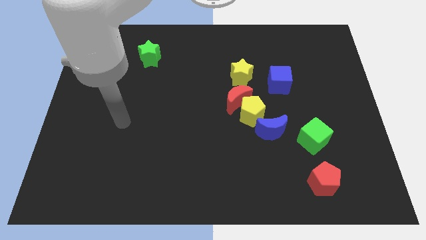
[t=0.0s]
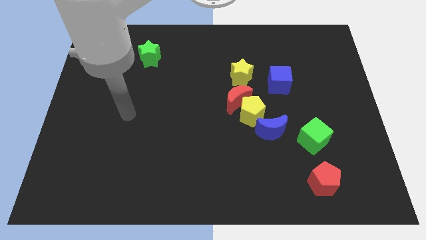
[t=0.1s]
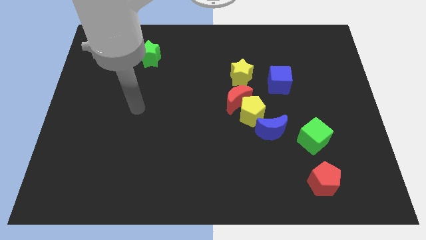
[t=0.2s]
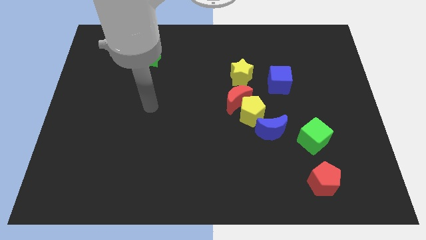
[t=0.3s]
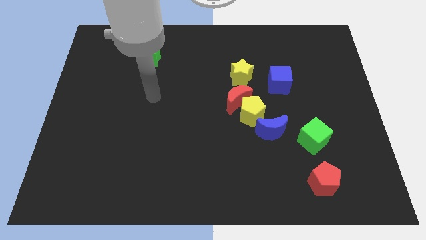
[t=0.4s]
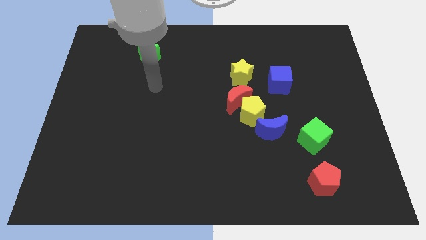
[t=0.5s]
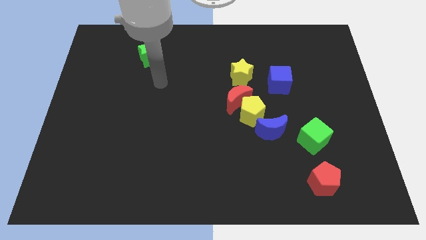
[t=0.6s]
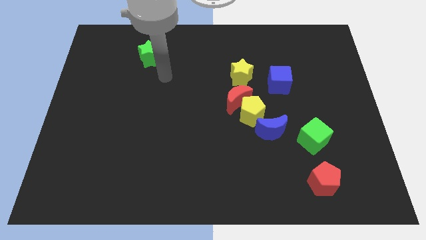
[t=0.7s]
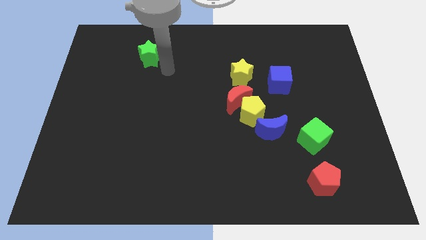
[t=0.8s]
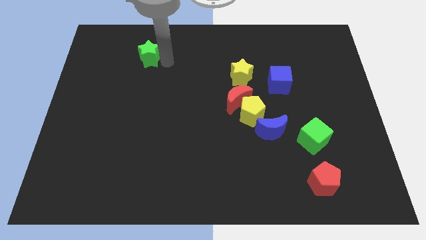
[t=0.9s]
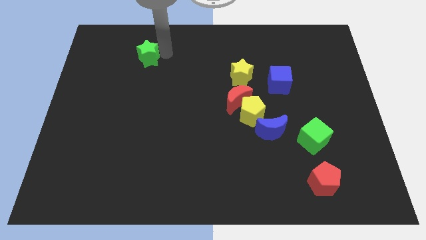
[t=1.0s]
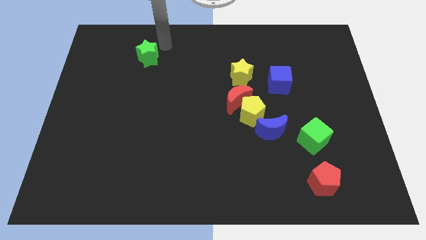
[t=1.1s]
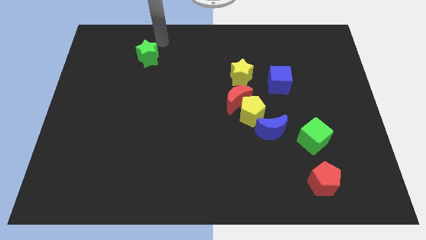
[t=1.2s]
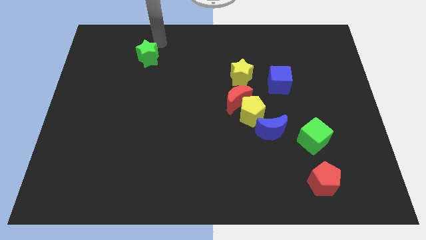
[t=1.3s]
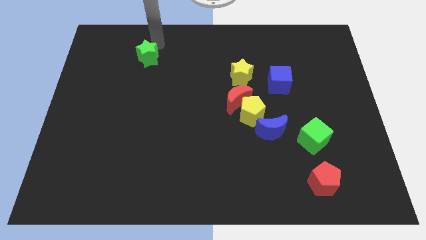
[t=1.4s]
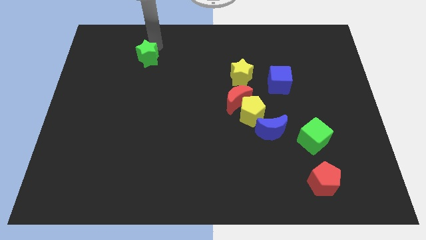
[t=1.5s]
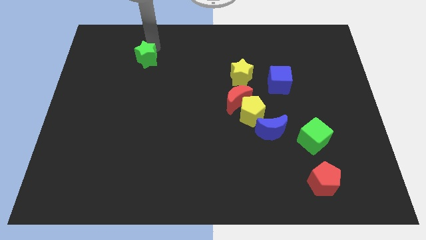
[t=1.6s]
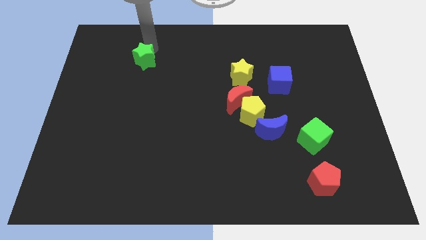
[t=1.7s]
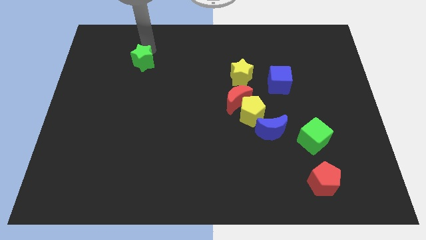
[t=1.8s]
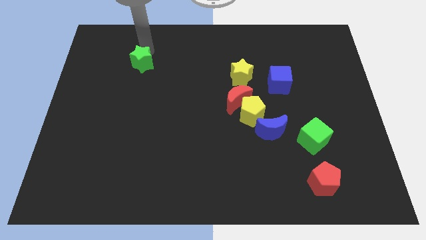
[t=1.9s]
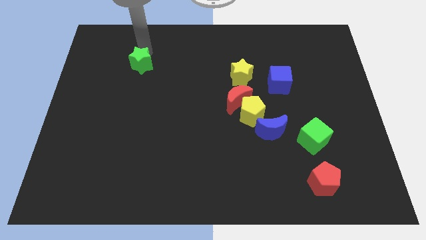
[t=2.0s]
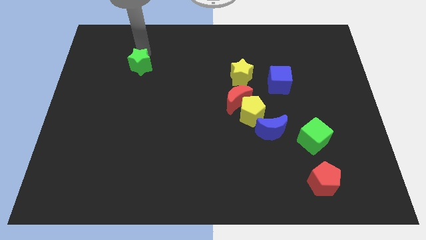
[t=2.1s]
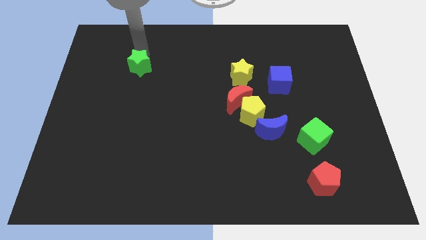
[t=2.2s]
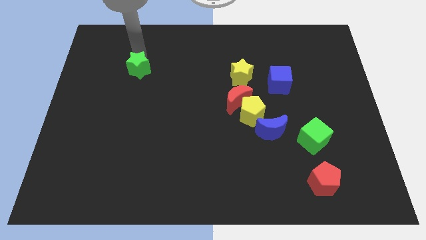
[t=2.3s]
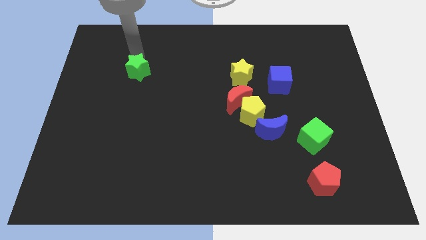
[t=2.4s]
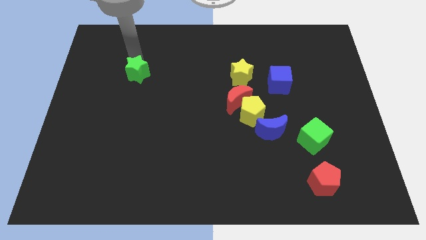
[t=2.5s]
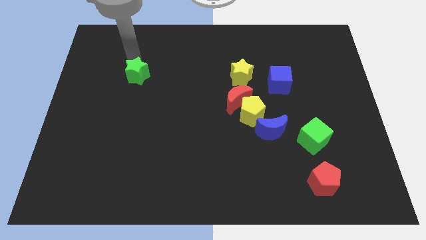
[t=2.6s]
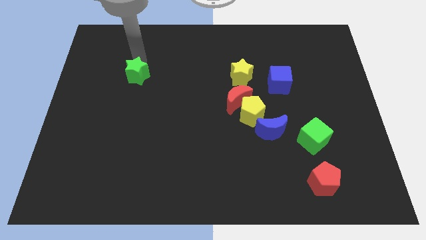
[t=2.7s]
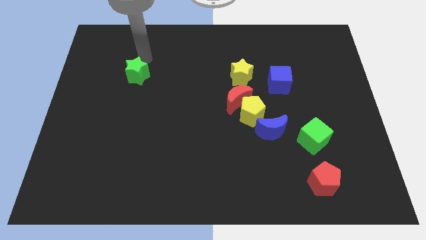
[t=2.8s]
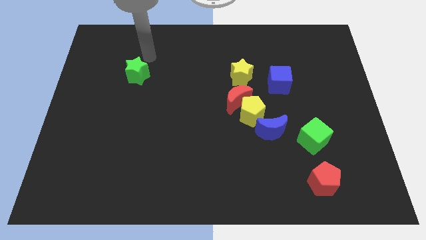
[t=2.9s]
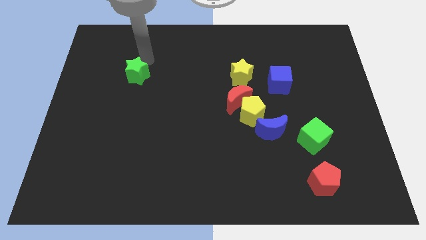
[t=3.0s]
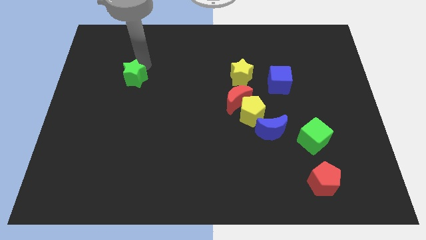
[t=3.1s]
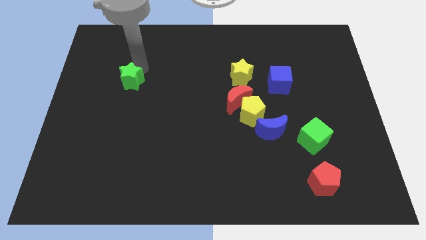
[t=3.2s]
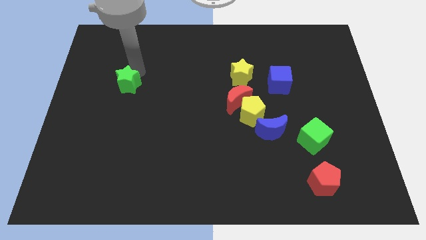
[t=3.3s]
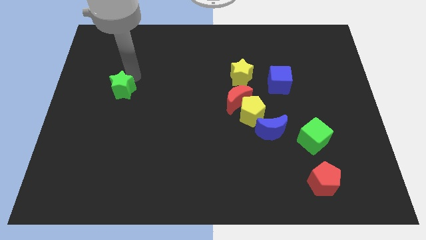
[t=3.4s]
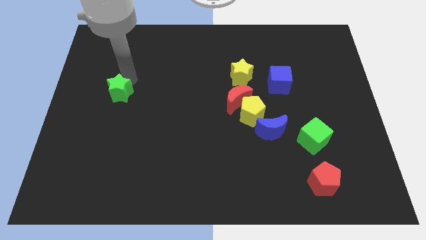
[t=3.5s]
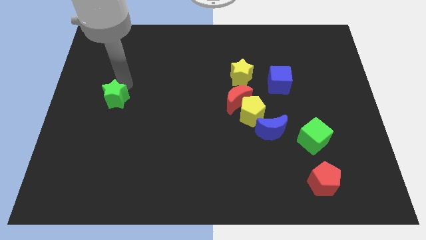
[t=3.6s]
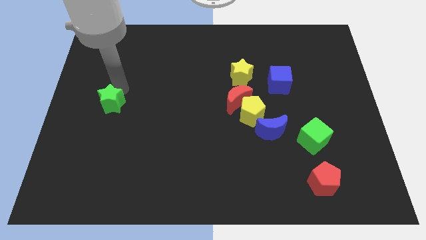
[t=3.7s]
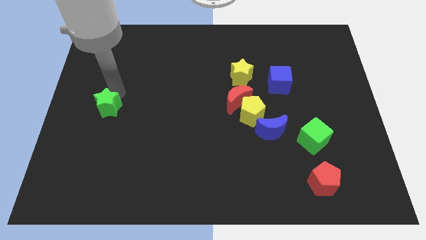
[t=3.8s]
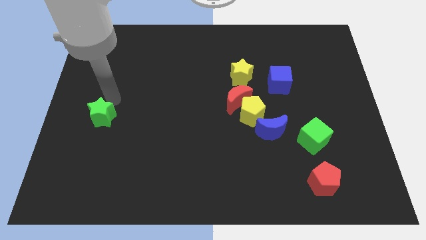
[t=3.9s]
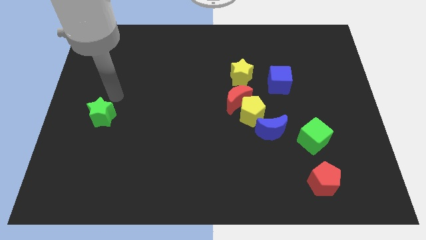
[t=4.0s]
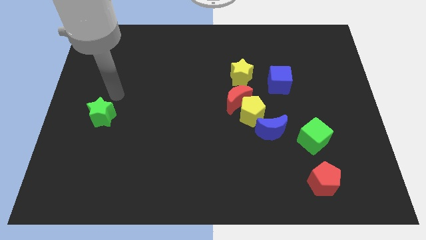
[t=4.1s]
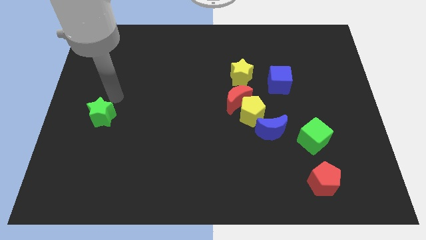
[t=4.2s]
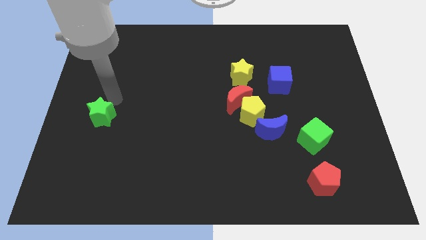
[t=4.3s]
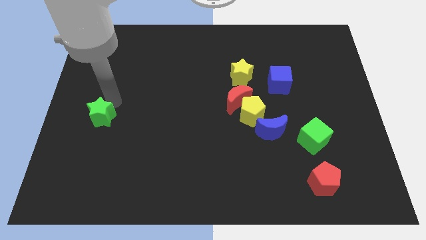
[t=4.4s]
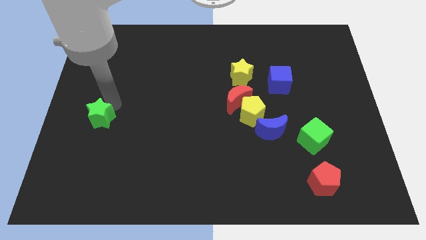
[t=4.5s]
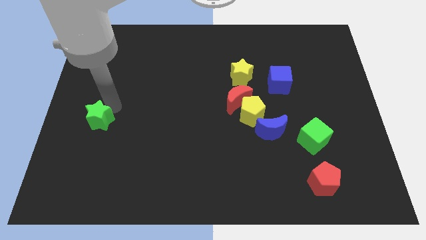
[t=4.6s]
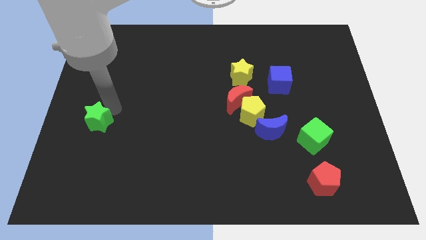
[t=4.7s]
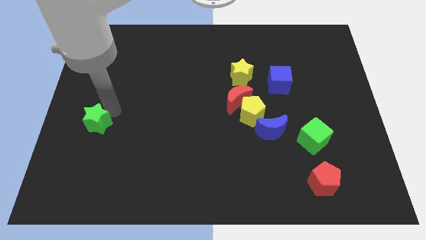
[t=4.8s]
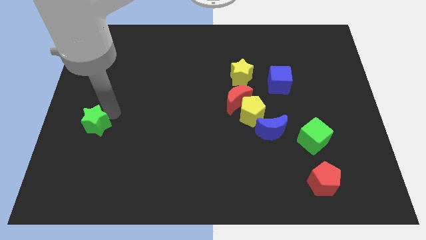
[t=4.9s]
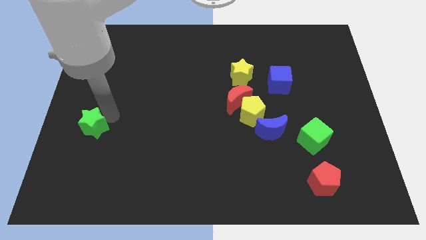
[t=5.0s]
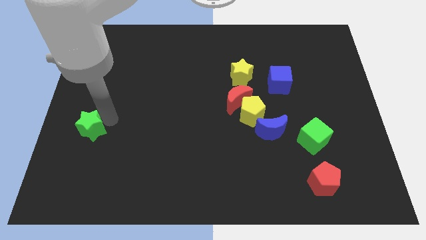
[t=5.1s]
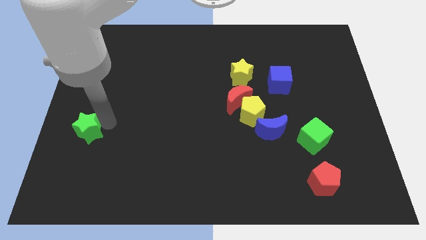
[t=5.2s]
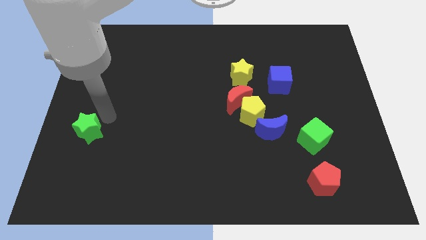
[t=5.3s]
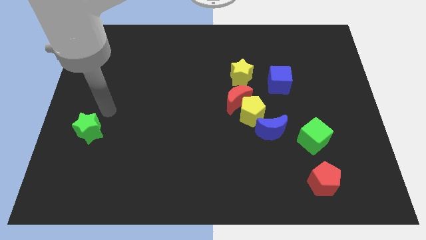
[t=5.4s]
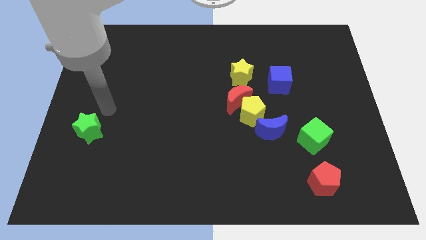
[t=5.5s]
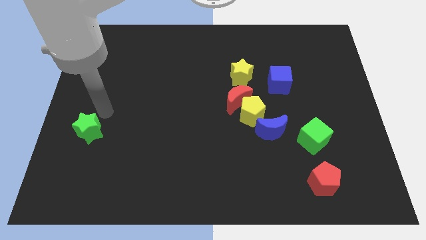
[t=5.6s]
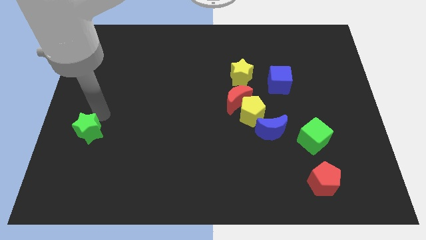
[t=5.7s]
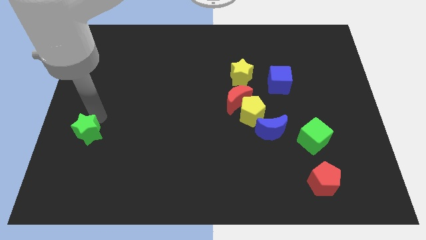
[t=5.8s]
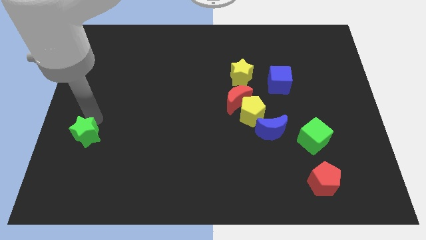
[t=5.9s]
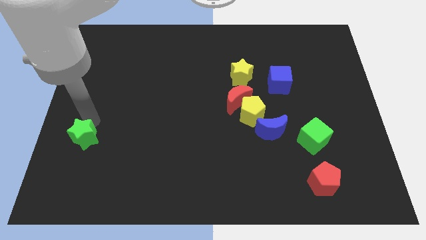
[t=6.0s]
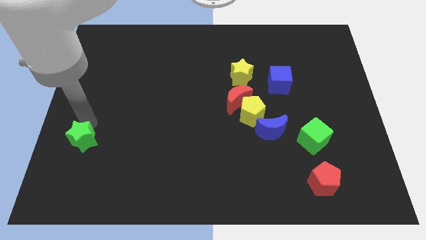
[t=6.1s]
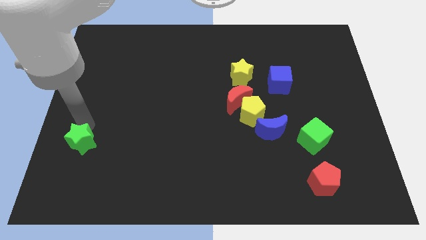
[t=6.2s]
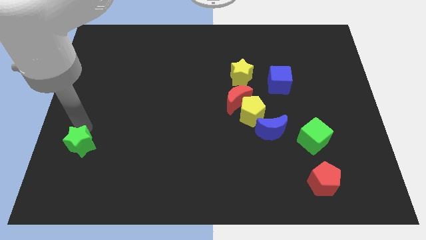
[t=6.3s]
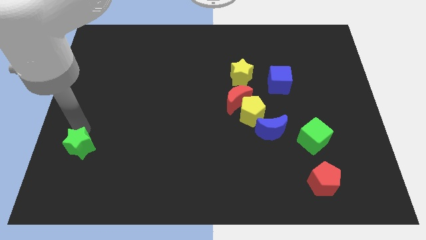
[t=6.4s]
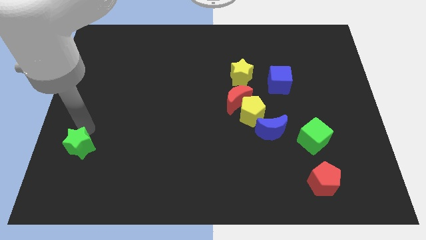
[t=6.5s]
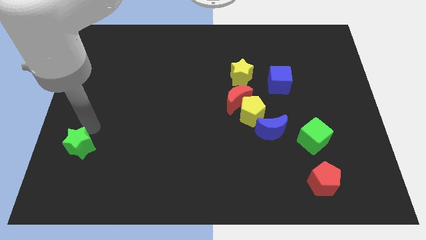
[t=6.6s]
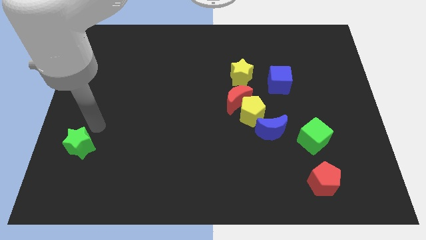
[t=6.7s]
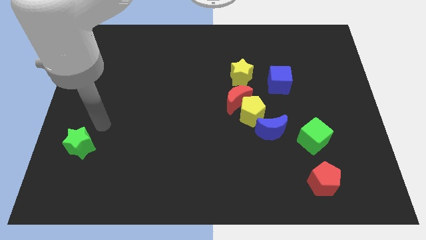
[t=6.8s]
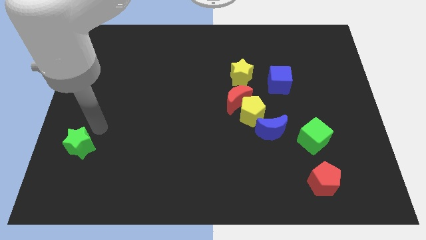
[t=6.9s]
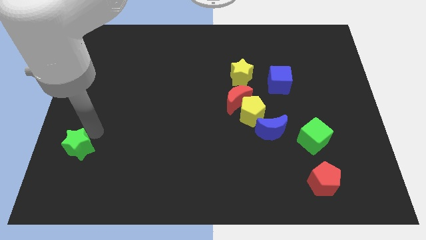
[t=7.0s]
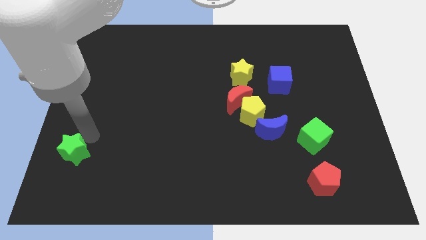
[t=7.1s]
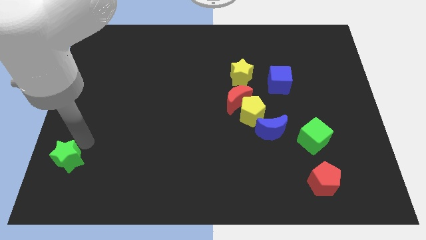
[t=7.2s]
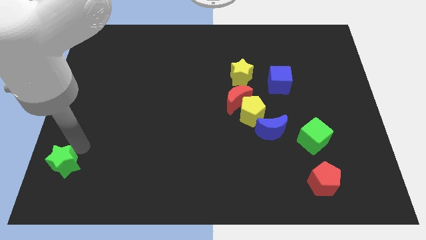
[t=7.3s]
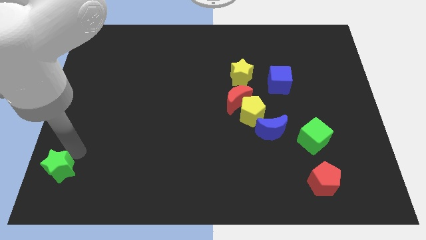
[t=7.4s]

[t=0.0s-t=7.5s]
put the green star to the bottom left of the board
